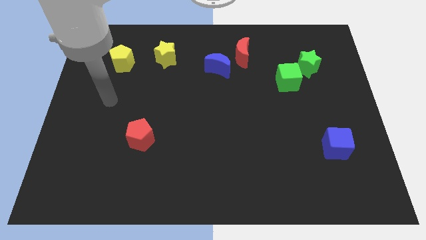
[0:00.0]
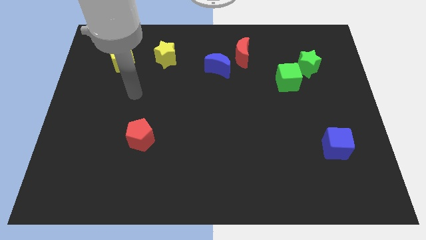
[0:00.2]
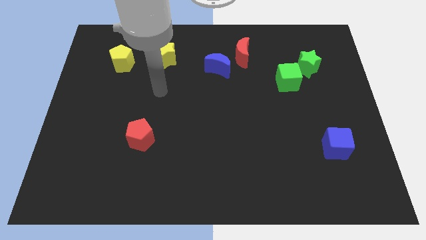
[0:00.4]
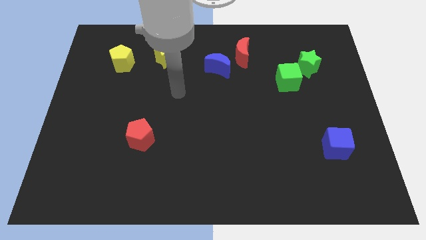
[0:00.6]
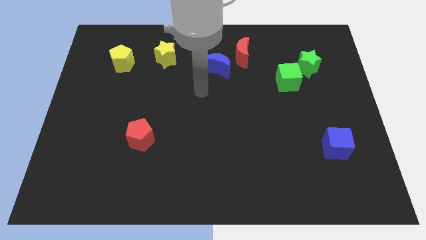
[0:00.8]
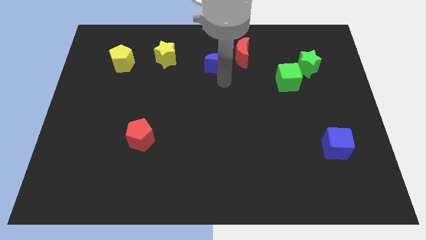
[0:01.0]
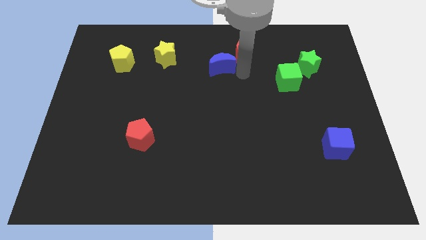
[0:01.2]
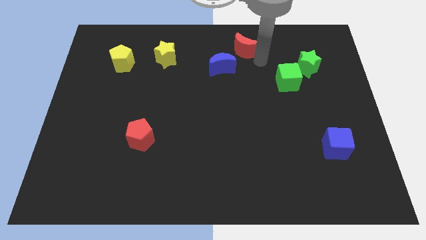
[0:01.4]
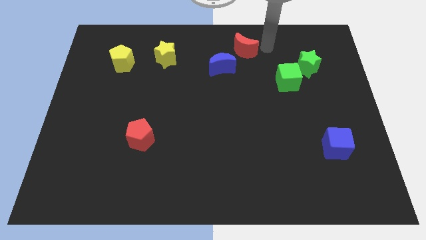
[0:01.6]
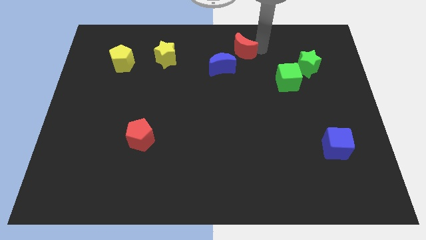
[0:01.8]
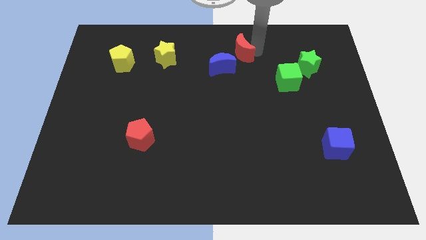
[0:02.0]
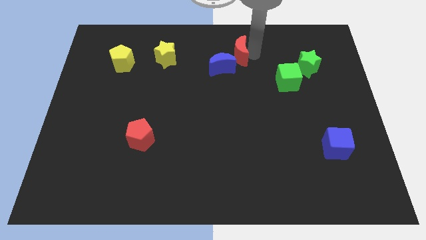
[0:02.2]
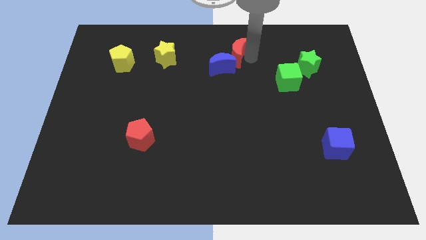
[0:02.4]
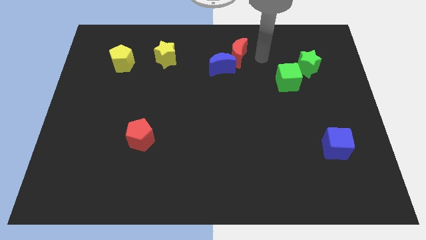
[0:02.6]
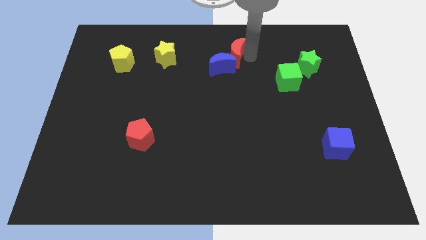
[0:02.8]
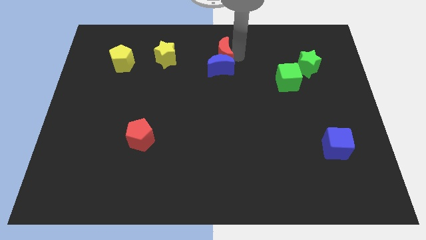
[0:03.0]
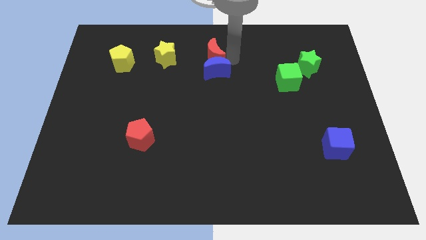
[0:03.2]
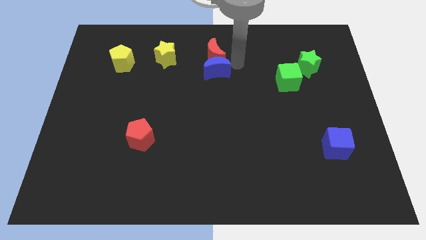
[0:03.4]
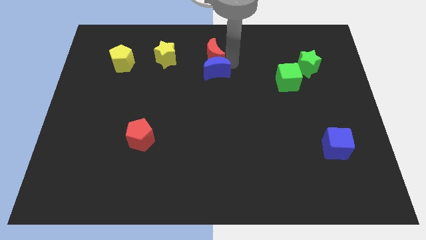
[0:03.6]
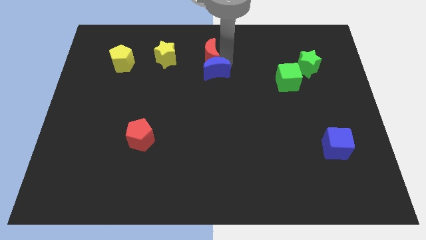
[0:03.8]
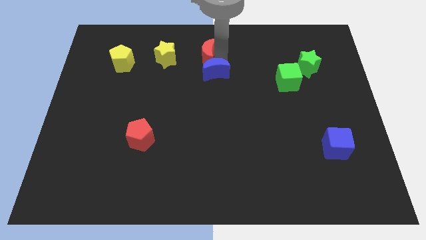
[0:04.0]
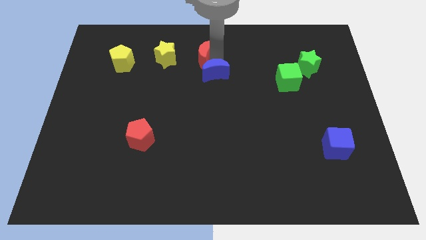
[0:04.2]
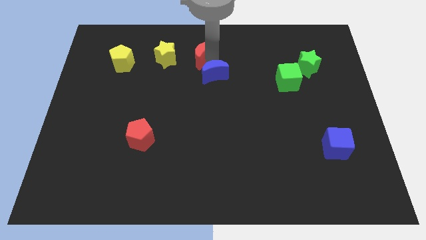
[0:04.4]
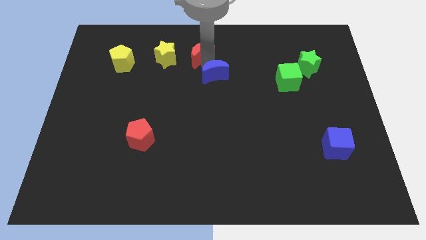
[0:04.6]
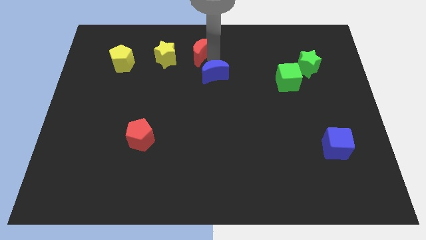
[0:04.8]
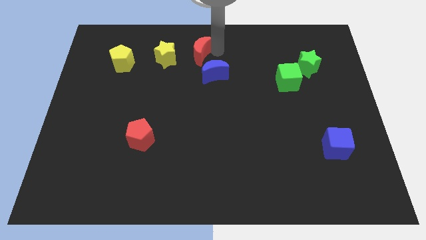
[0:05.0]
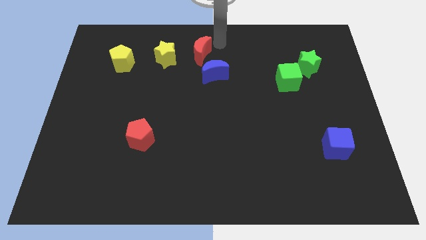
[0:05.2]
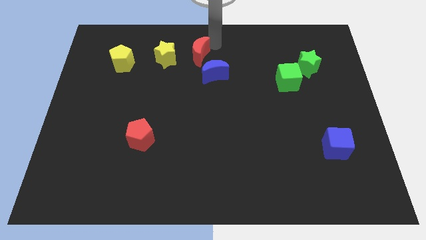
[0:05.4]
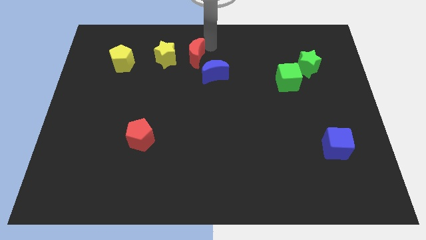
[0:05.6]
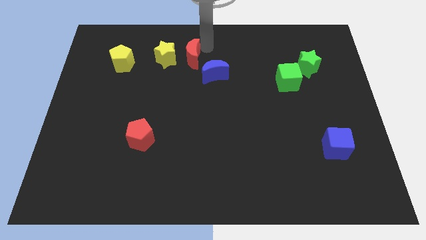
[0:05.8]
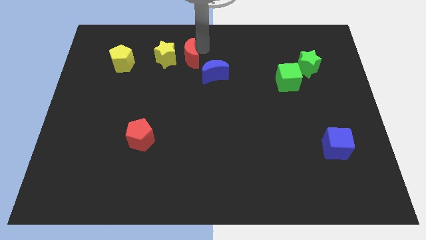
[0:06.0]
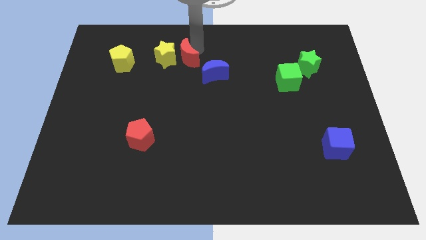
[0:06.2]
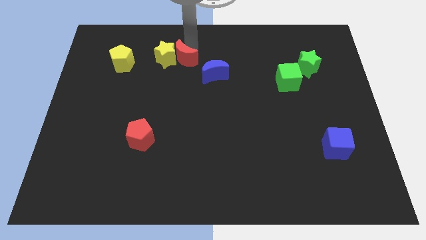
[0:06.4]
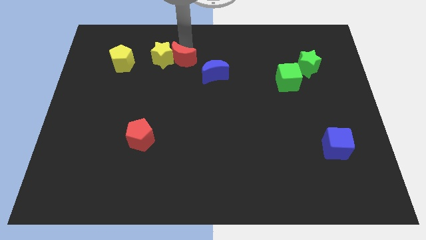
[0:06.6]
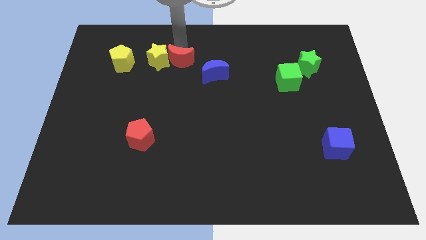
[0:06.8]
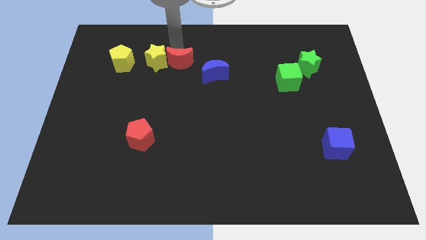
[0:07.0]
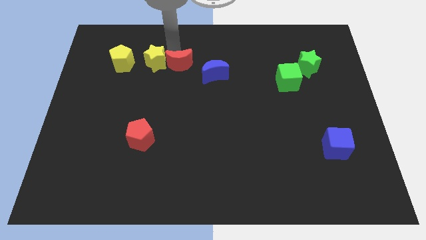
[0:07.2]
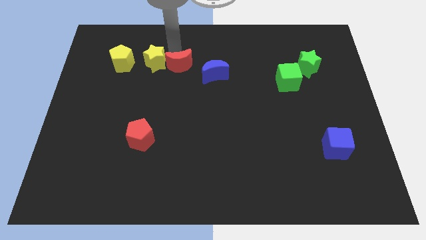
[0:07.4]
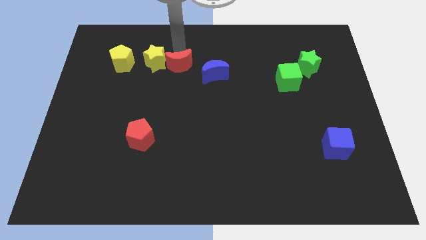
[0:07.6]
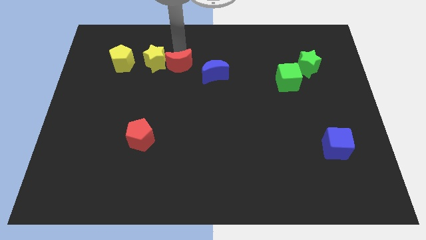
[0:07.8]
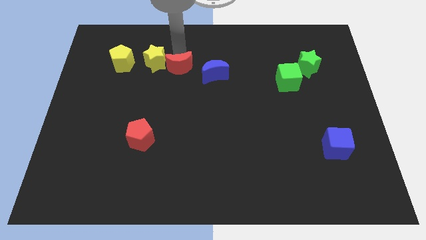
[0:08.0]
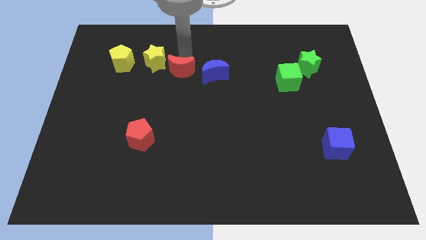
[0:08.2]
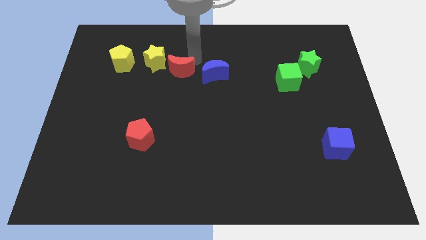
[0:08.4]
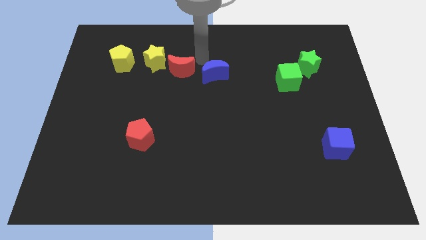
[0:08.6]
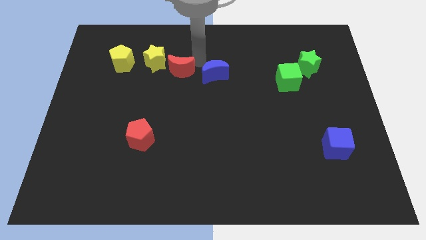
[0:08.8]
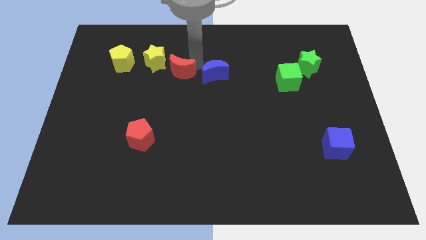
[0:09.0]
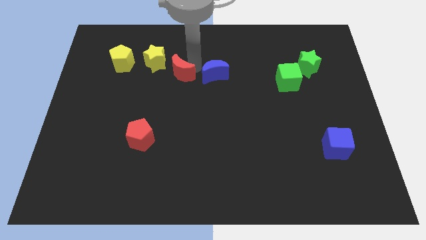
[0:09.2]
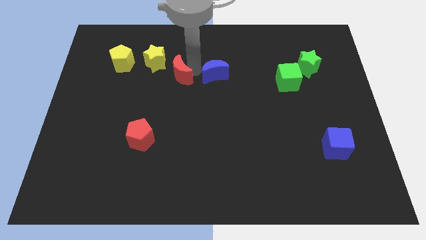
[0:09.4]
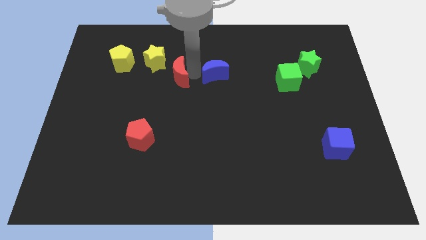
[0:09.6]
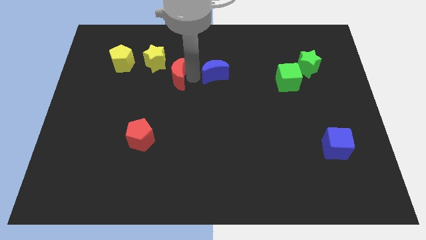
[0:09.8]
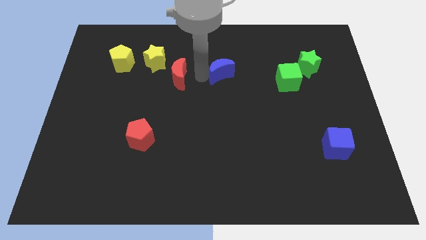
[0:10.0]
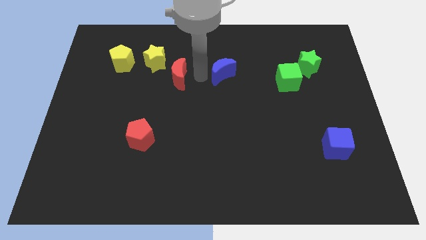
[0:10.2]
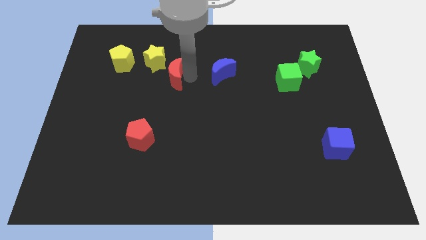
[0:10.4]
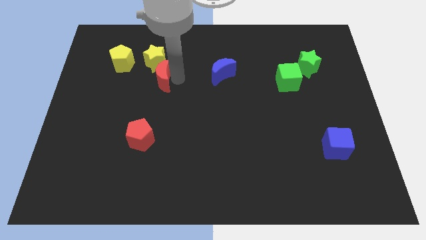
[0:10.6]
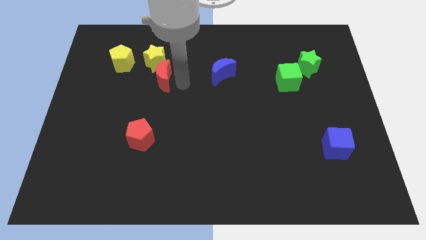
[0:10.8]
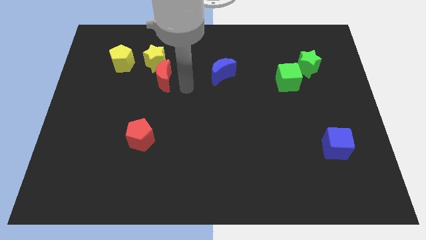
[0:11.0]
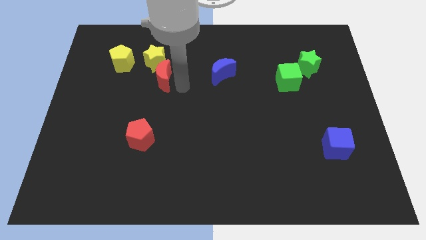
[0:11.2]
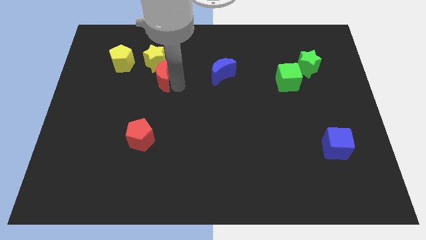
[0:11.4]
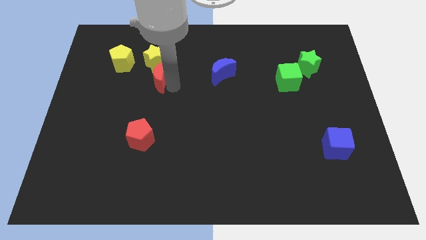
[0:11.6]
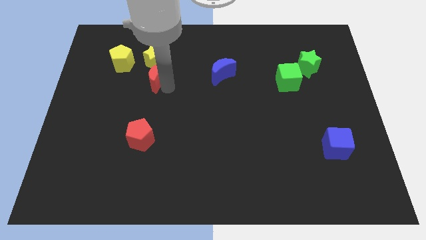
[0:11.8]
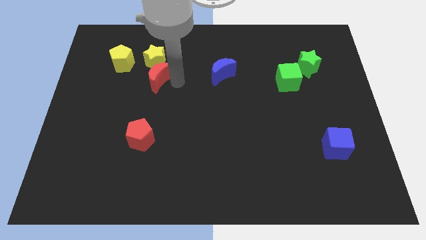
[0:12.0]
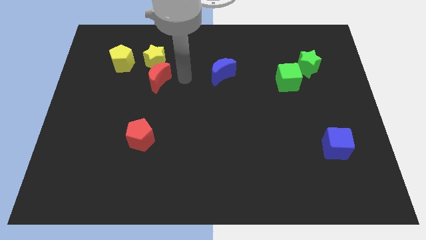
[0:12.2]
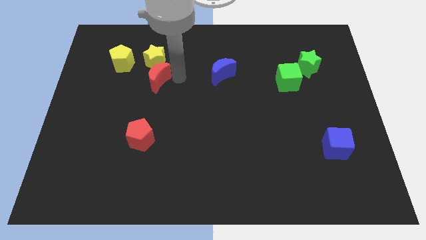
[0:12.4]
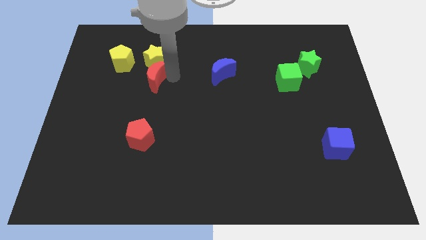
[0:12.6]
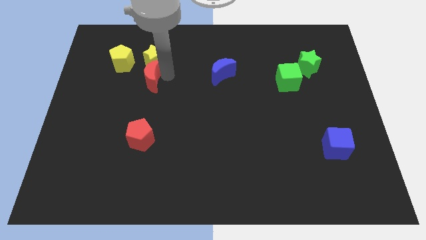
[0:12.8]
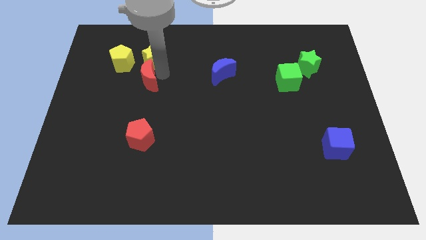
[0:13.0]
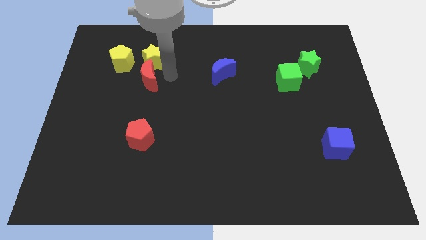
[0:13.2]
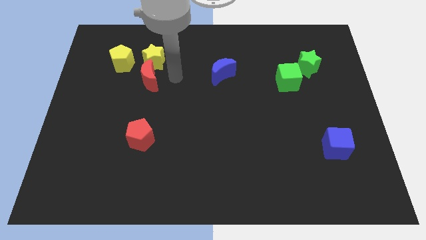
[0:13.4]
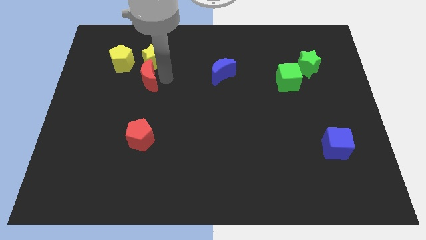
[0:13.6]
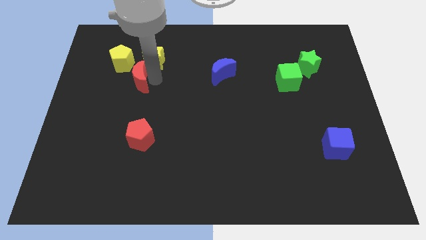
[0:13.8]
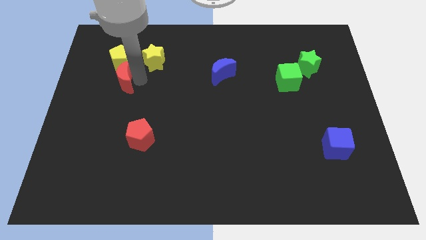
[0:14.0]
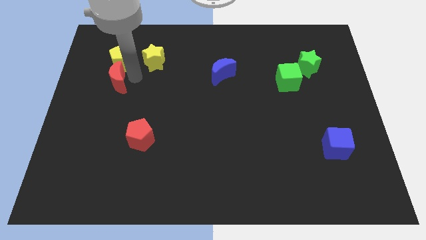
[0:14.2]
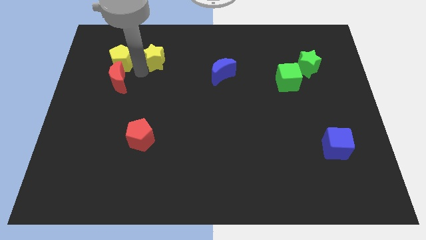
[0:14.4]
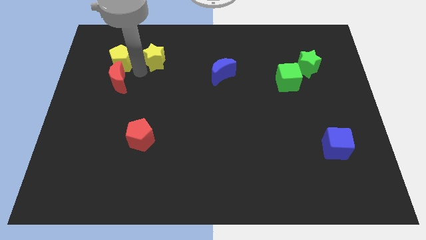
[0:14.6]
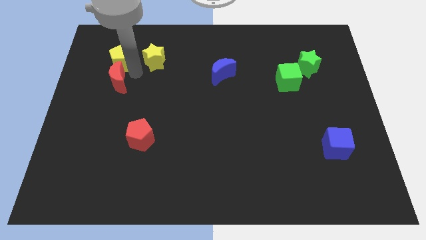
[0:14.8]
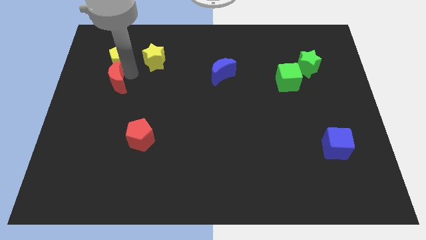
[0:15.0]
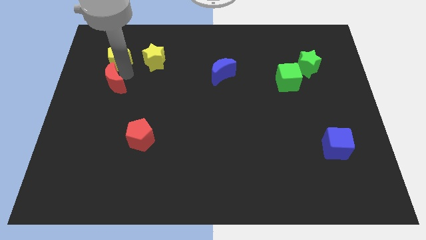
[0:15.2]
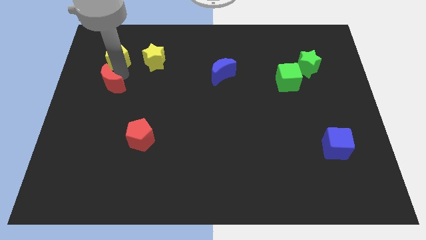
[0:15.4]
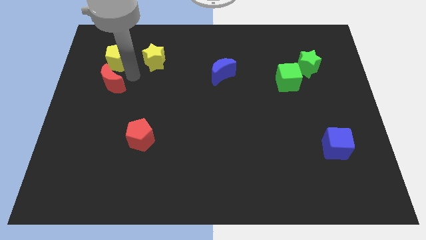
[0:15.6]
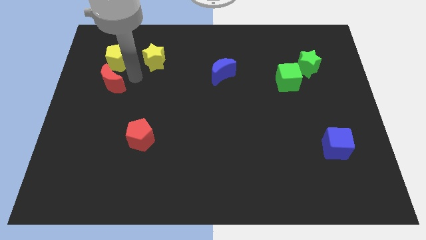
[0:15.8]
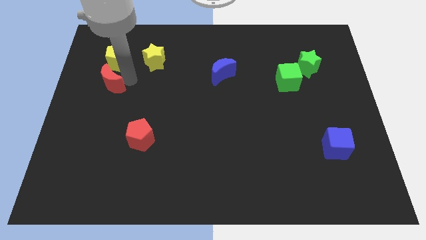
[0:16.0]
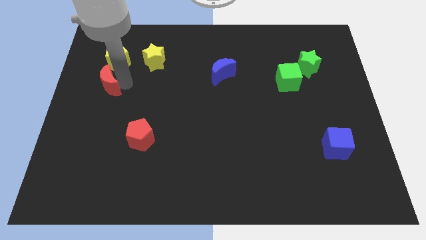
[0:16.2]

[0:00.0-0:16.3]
push the red moon to the center left
